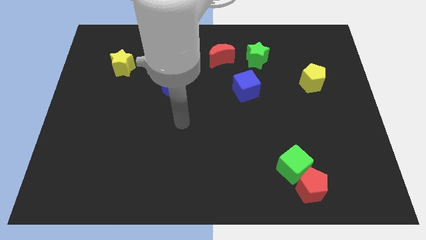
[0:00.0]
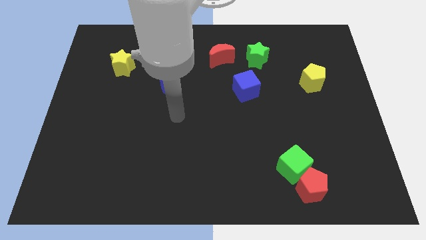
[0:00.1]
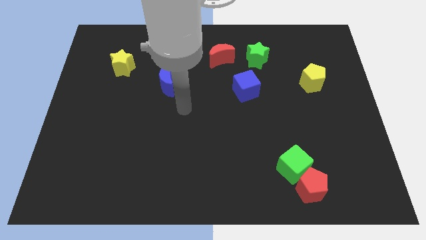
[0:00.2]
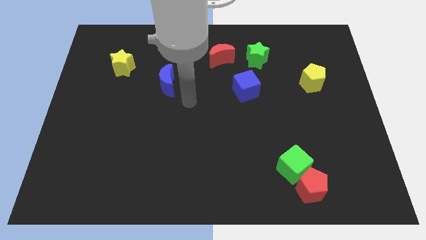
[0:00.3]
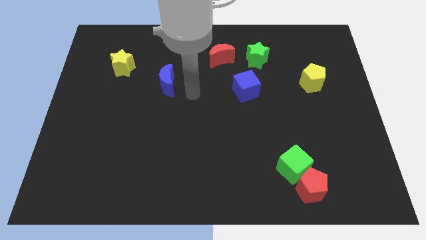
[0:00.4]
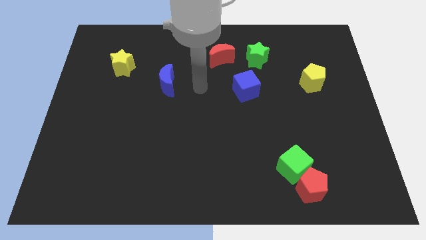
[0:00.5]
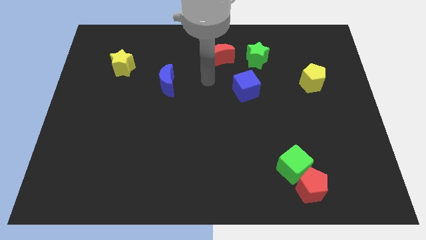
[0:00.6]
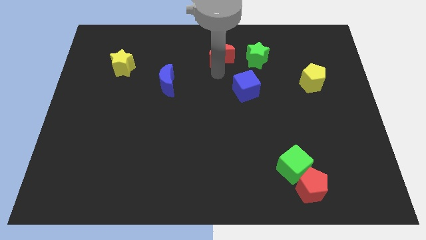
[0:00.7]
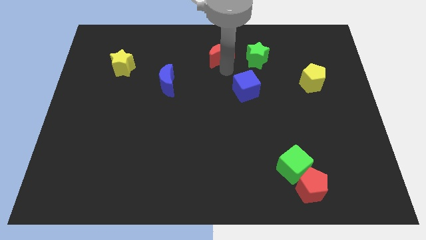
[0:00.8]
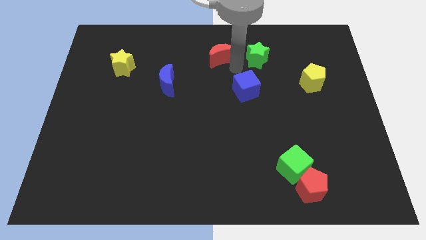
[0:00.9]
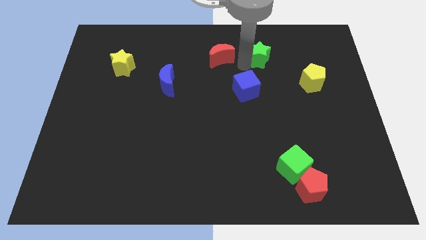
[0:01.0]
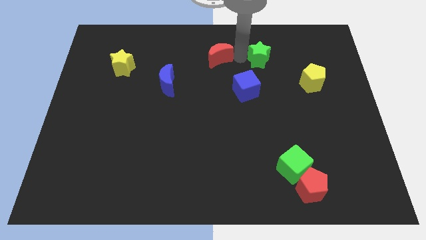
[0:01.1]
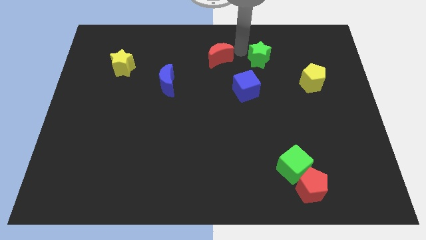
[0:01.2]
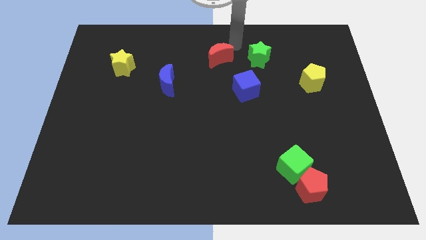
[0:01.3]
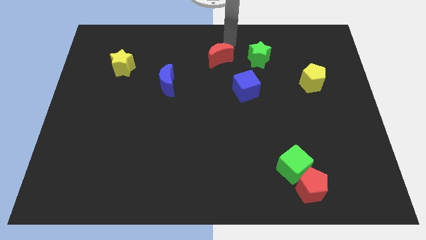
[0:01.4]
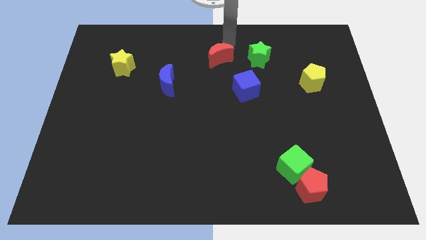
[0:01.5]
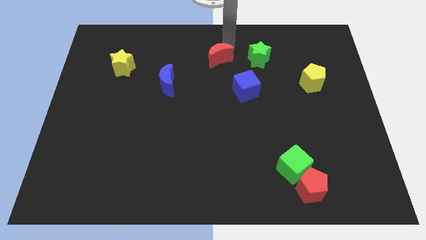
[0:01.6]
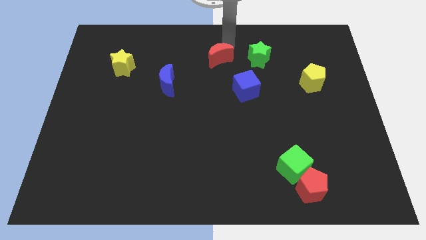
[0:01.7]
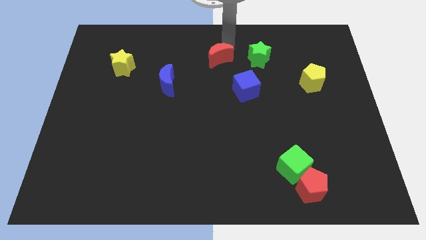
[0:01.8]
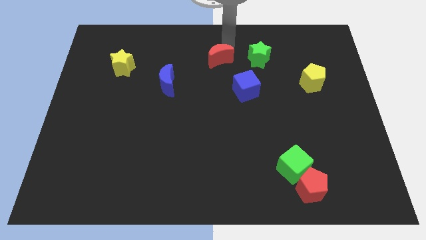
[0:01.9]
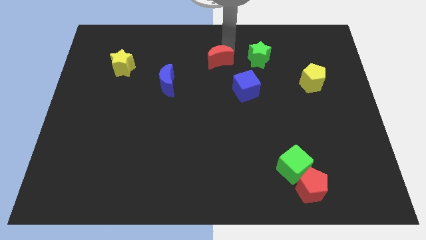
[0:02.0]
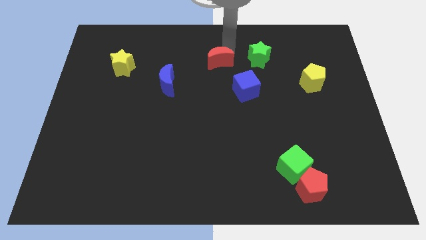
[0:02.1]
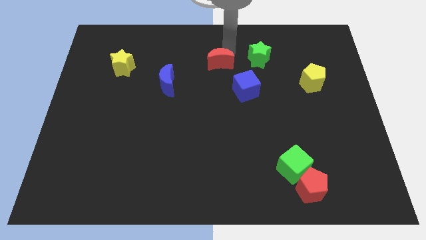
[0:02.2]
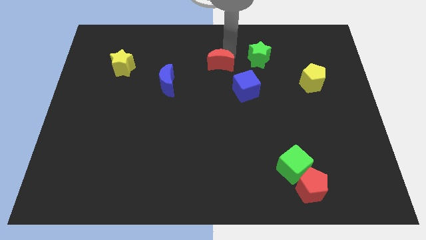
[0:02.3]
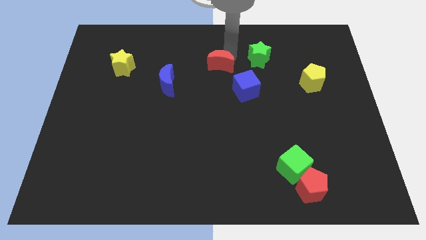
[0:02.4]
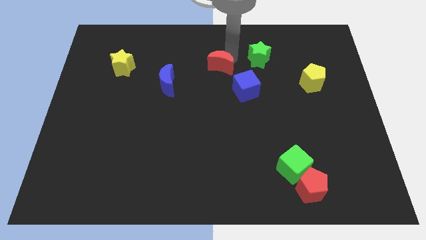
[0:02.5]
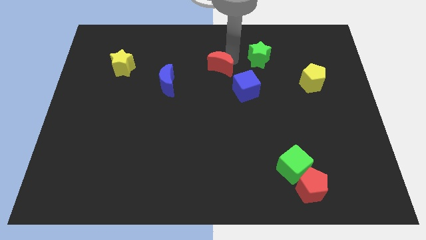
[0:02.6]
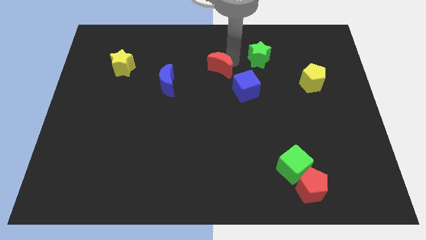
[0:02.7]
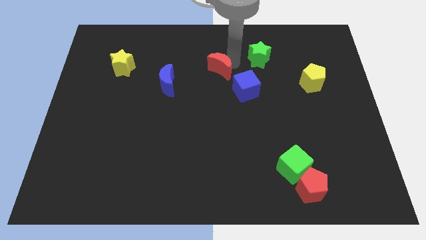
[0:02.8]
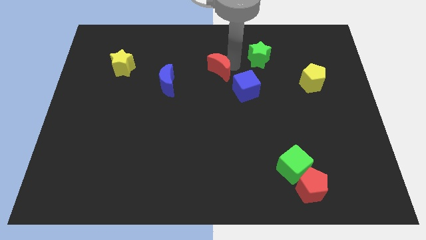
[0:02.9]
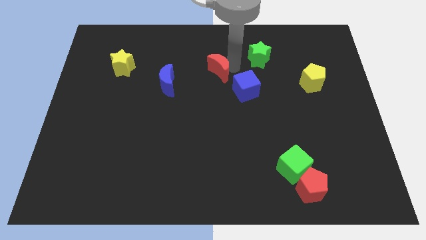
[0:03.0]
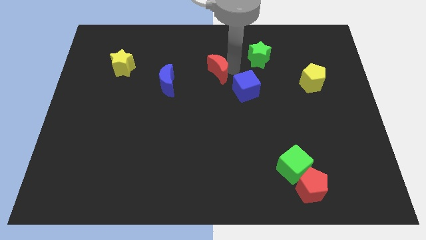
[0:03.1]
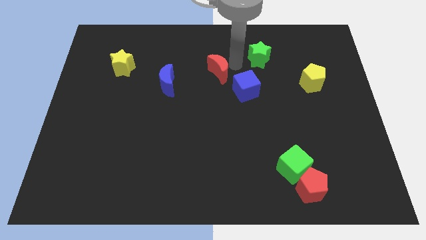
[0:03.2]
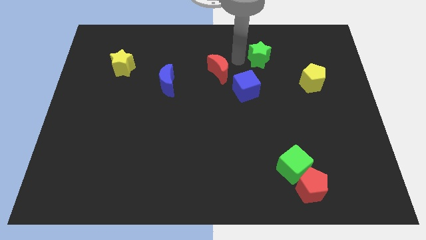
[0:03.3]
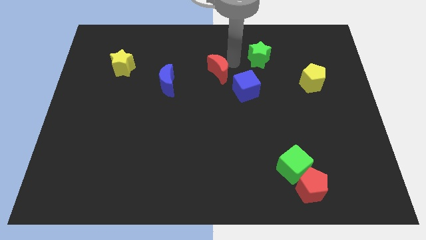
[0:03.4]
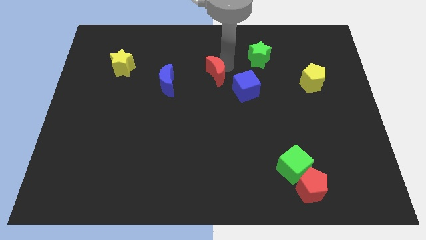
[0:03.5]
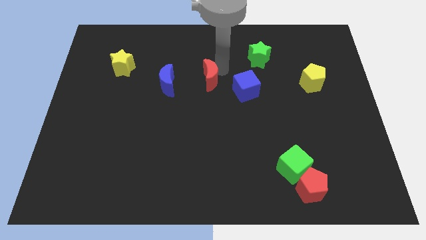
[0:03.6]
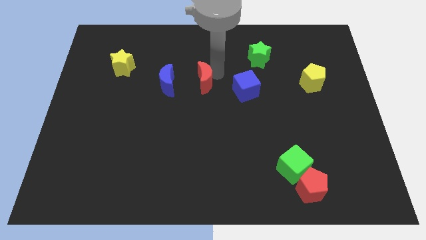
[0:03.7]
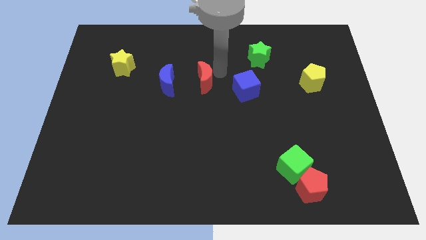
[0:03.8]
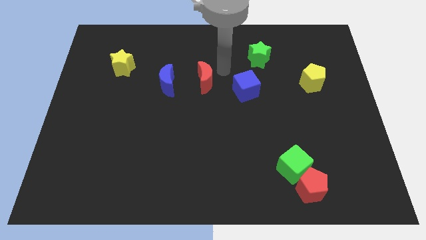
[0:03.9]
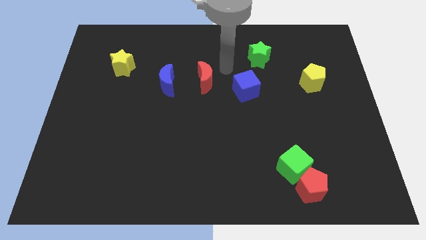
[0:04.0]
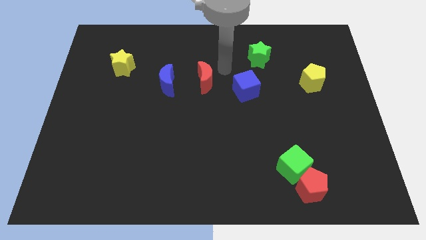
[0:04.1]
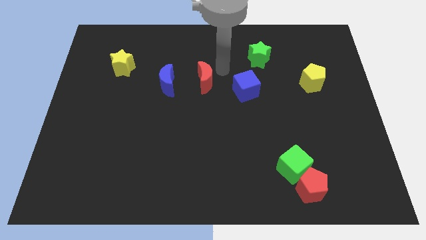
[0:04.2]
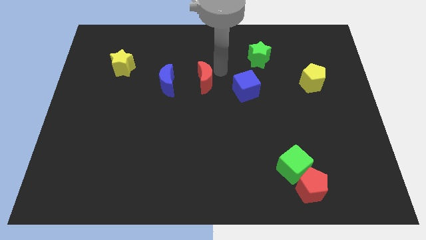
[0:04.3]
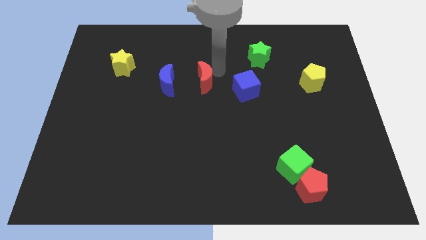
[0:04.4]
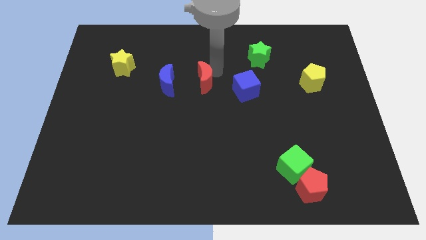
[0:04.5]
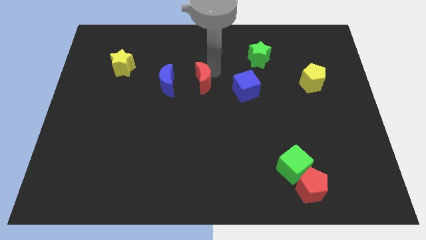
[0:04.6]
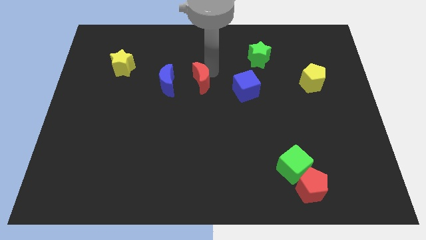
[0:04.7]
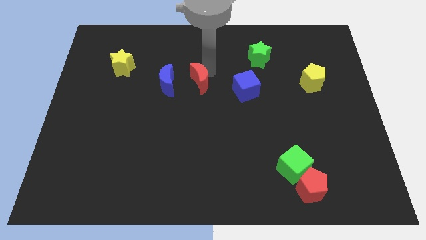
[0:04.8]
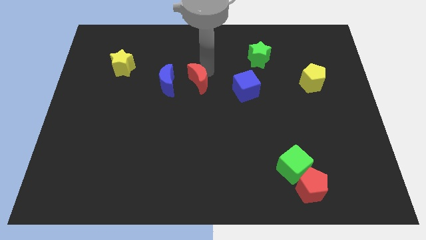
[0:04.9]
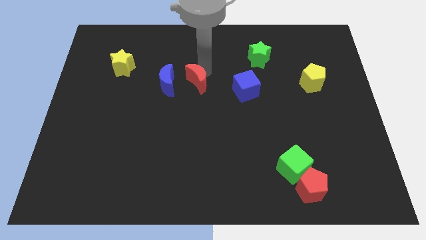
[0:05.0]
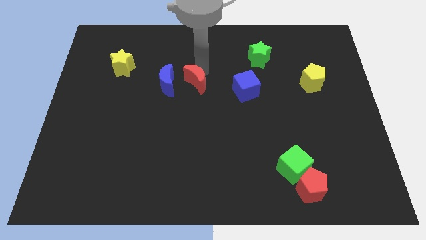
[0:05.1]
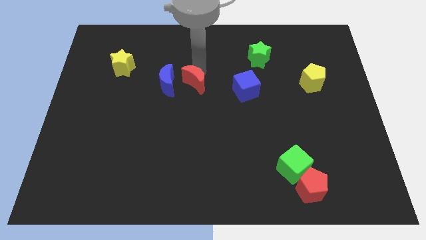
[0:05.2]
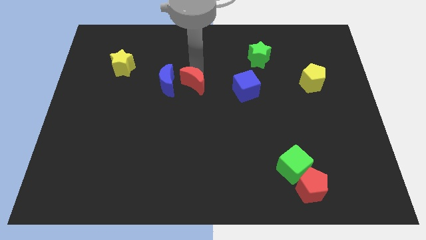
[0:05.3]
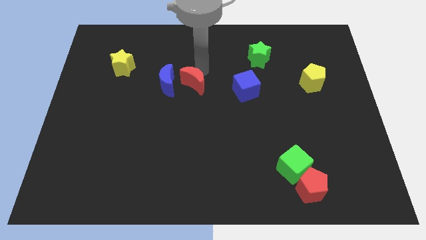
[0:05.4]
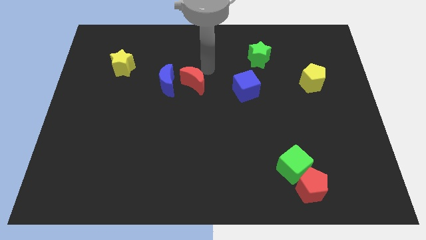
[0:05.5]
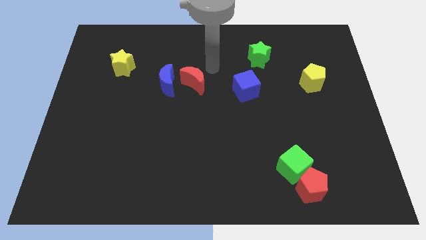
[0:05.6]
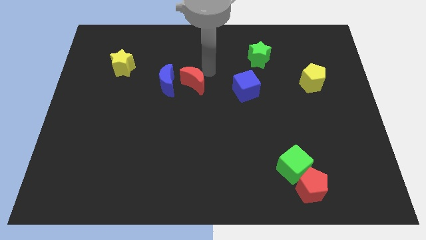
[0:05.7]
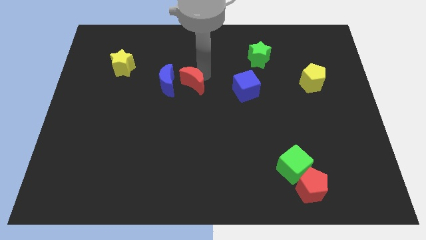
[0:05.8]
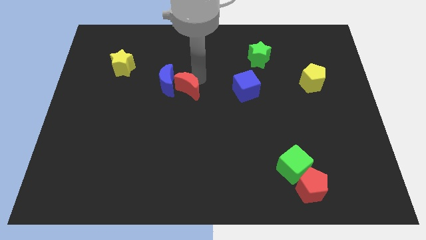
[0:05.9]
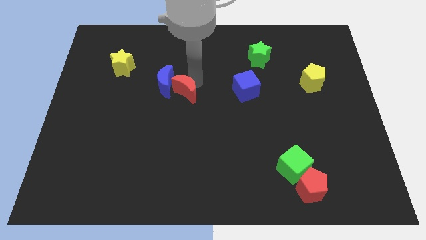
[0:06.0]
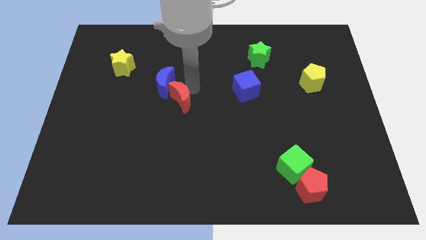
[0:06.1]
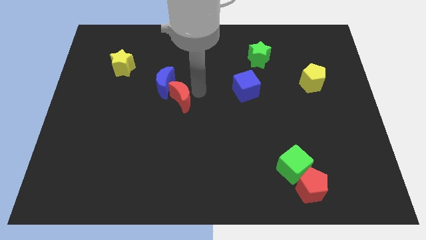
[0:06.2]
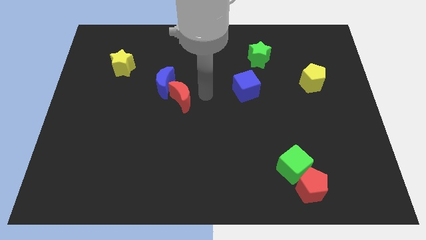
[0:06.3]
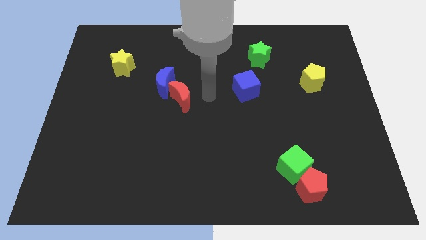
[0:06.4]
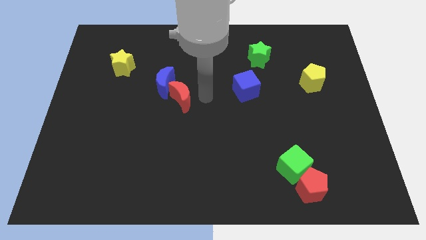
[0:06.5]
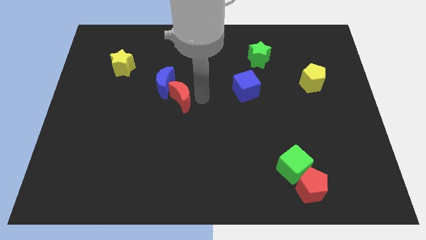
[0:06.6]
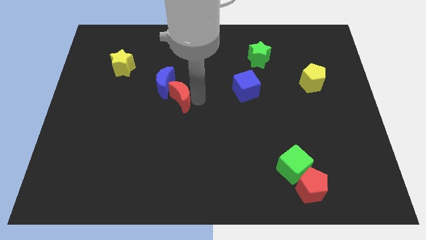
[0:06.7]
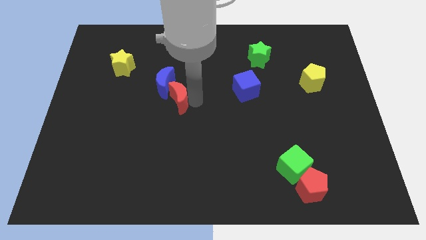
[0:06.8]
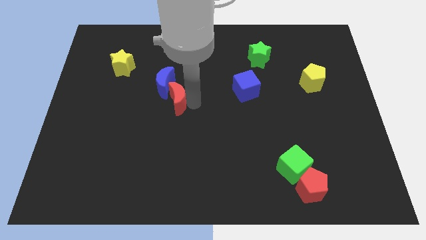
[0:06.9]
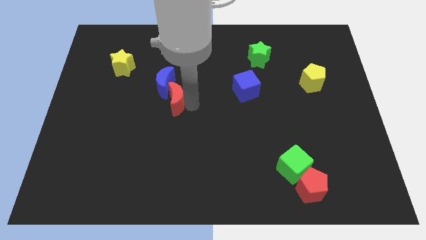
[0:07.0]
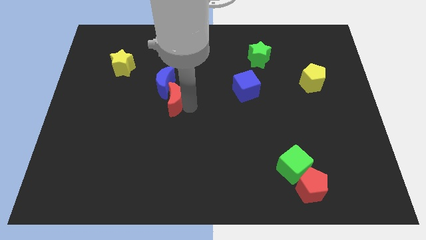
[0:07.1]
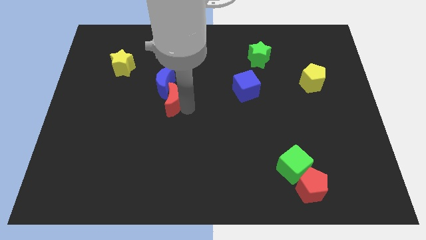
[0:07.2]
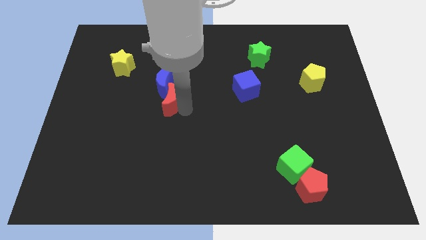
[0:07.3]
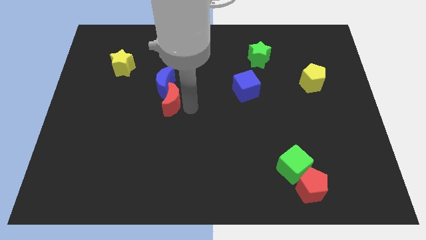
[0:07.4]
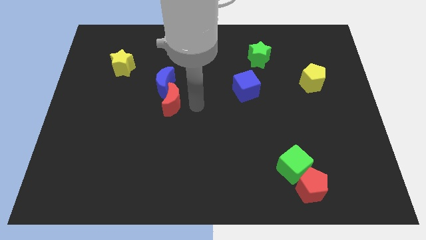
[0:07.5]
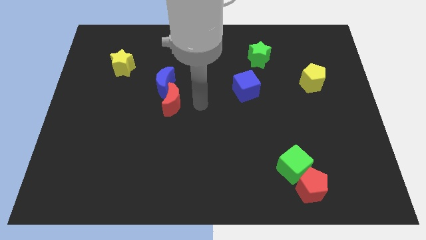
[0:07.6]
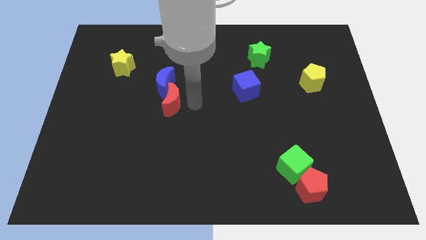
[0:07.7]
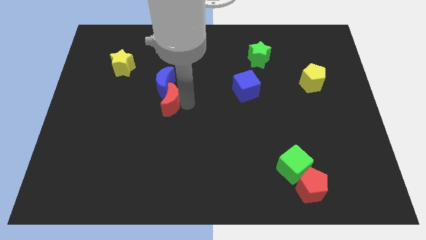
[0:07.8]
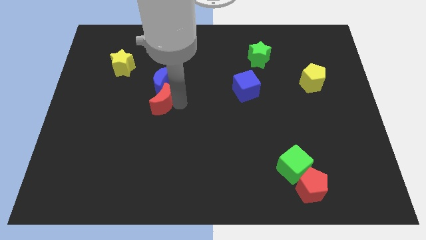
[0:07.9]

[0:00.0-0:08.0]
push the red moon to the bottom left of the blue moon
